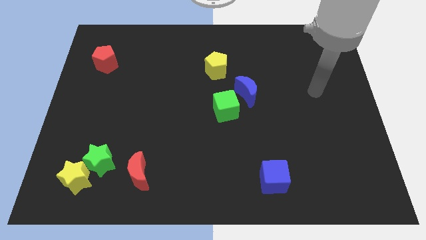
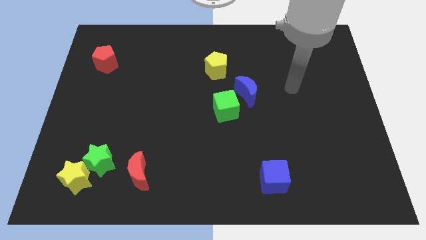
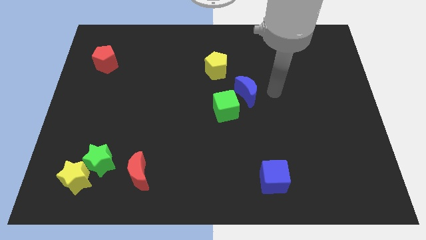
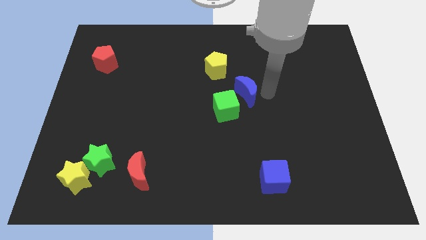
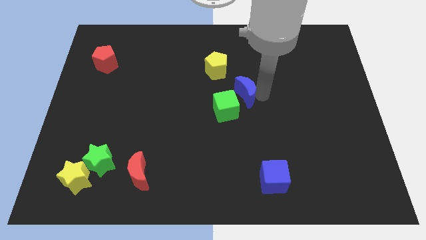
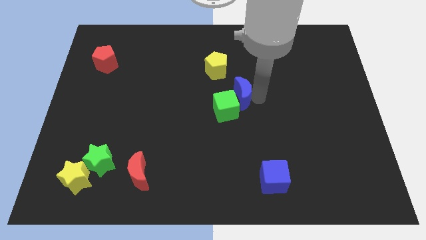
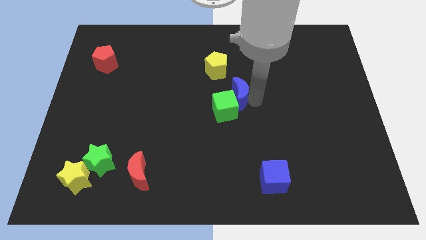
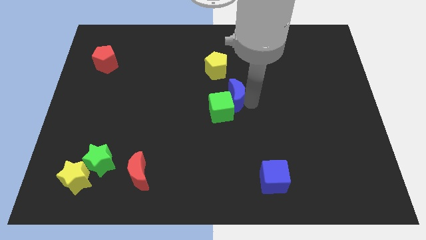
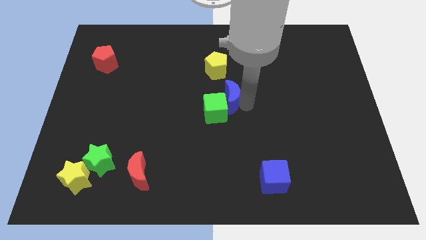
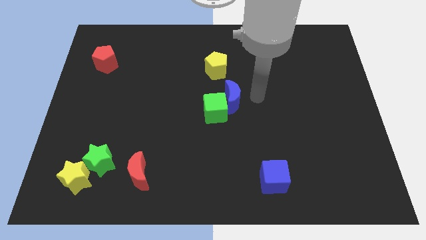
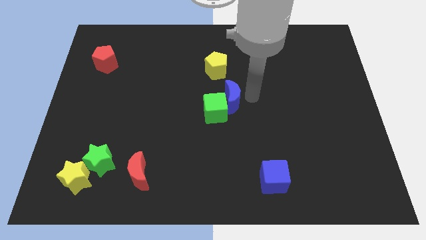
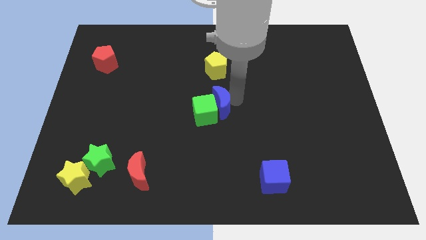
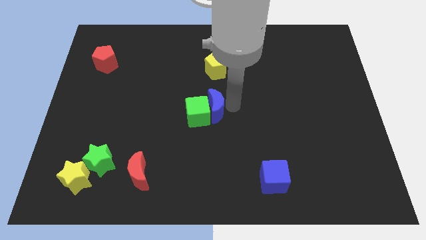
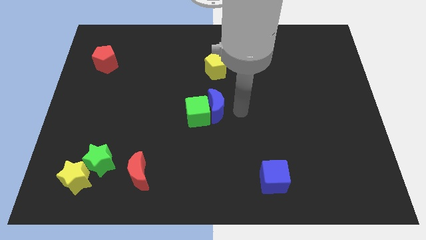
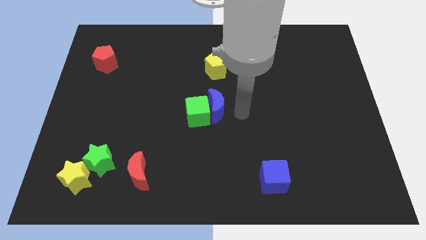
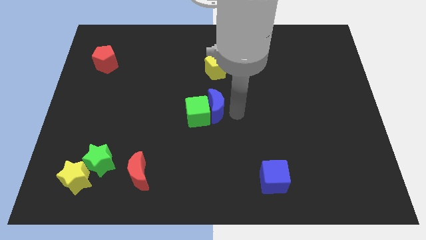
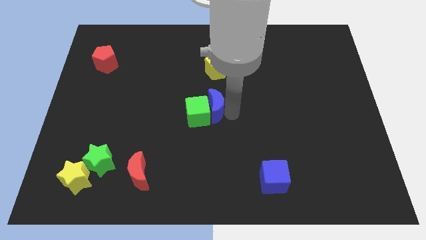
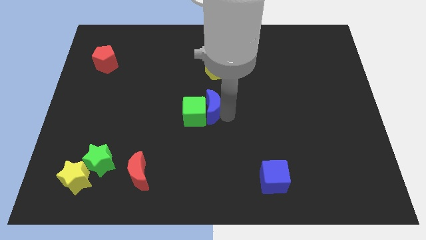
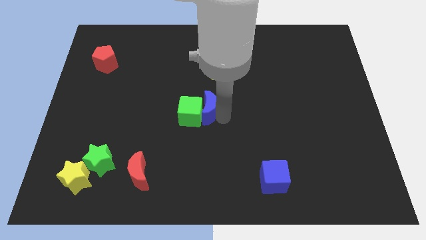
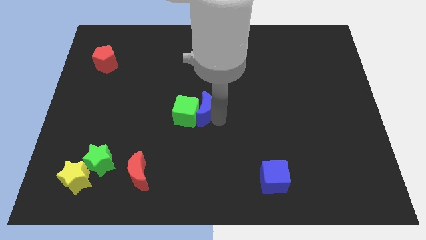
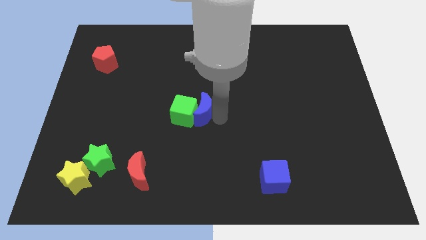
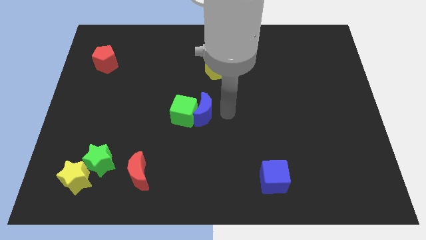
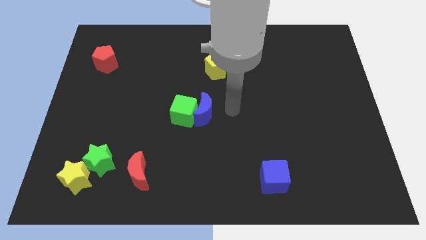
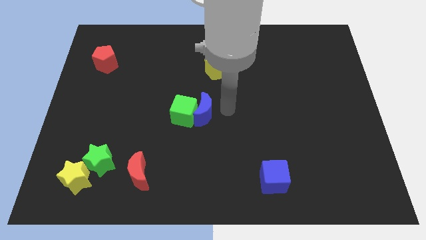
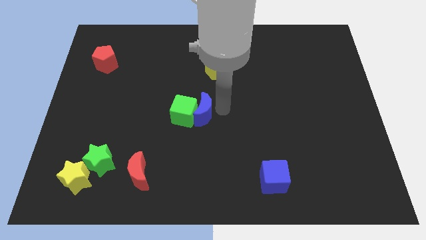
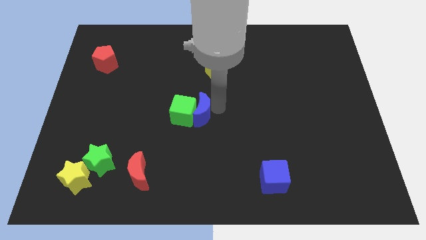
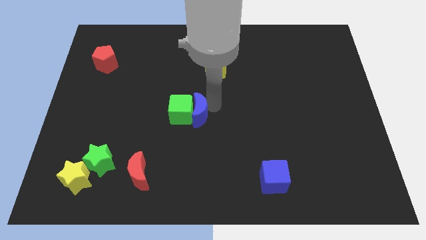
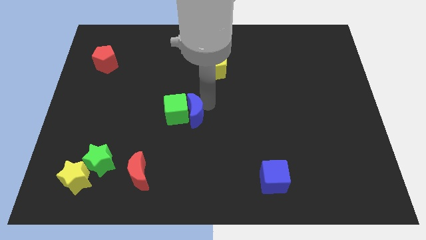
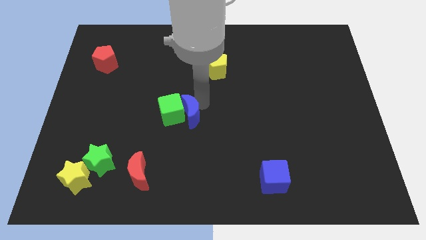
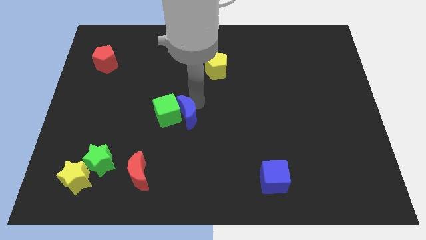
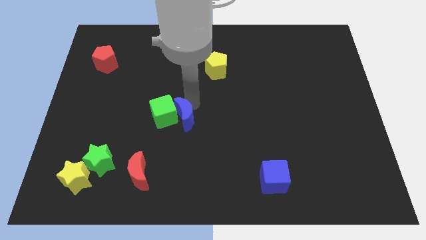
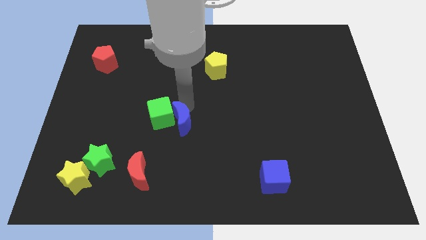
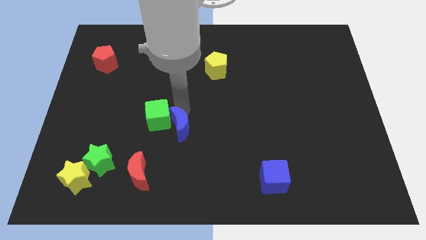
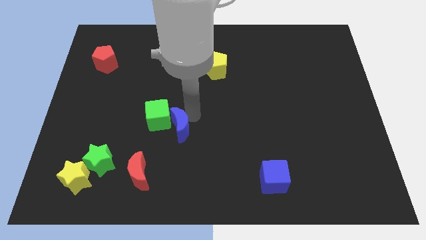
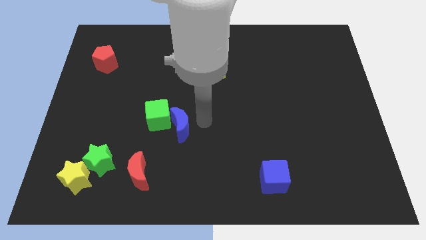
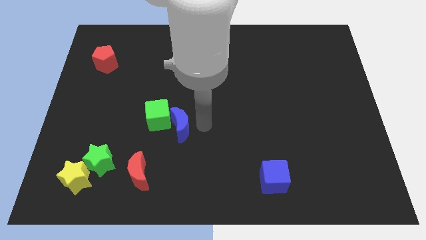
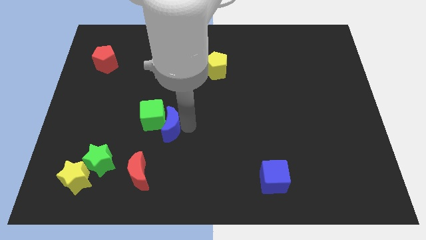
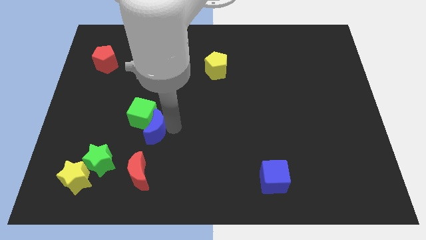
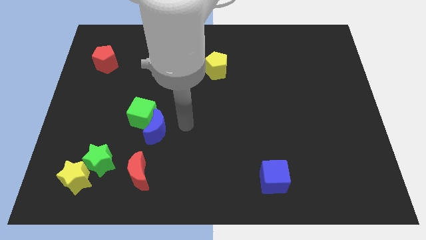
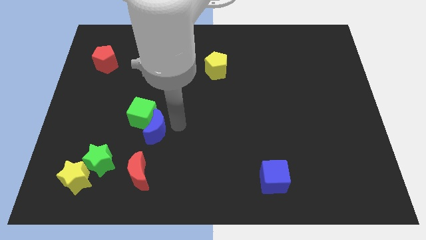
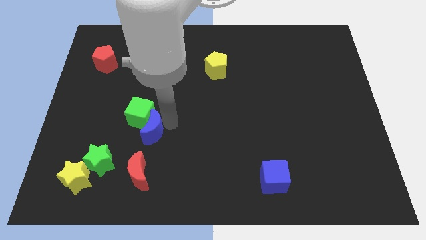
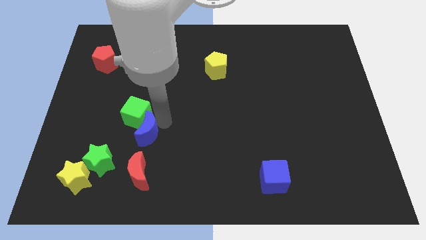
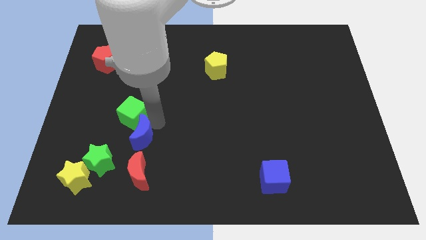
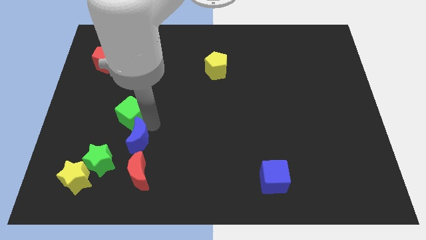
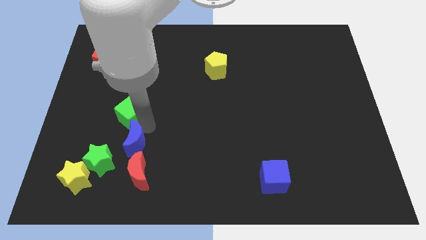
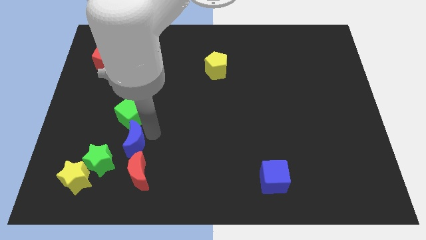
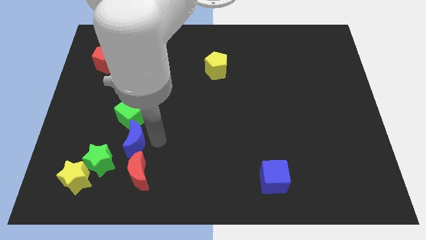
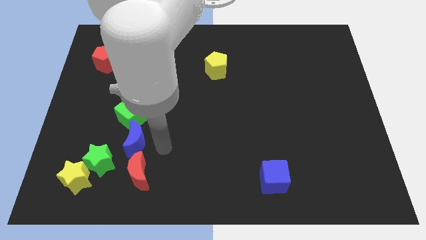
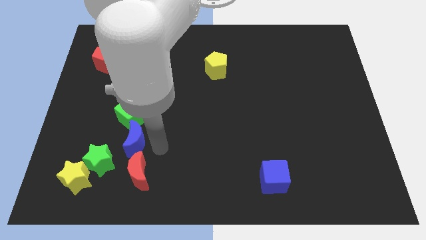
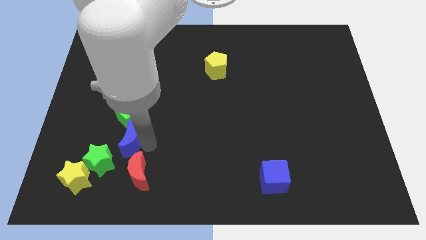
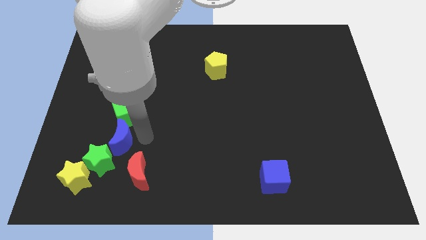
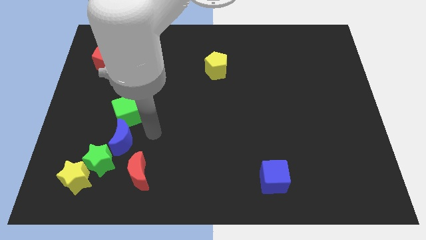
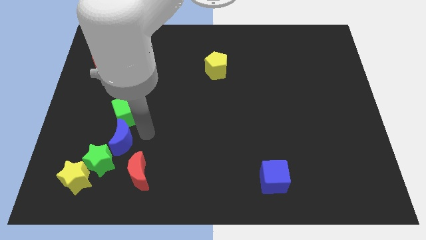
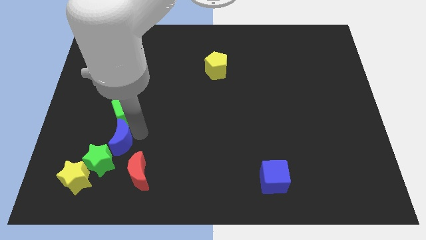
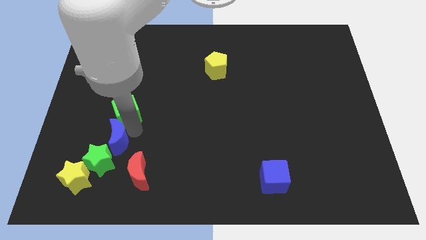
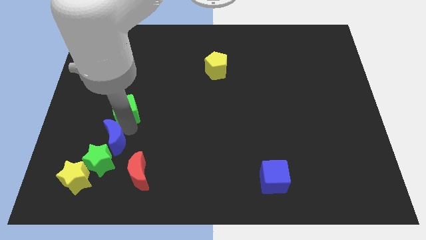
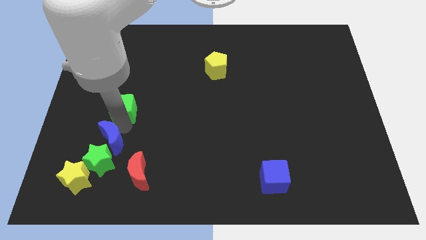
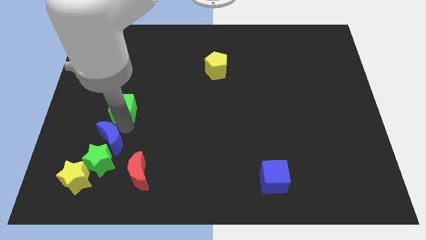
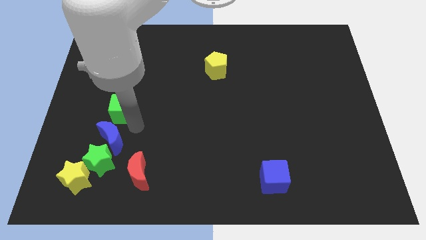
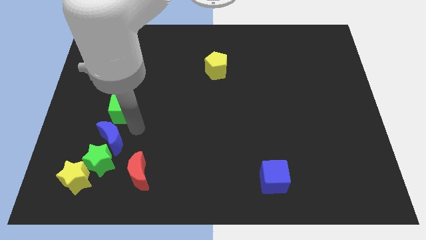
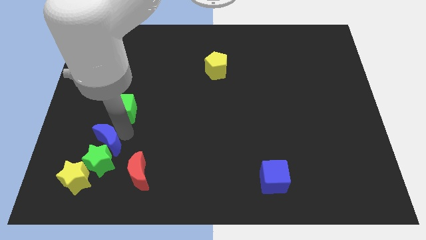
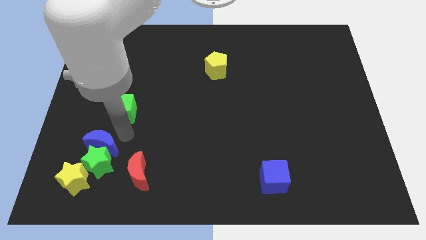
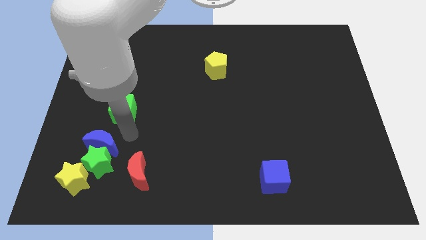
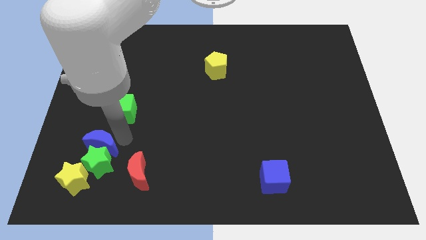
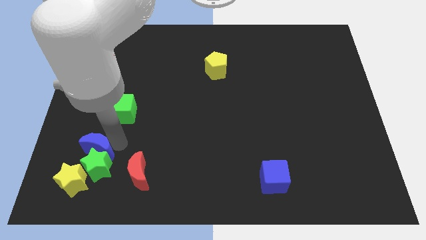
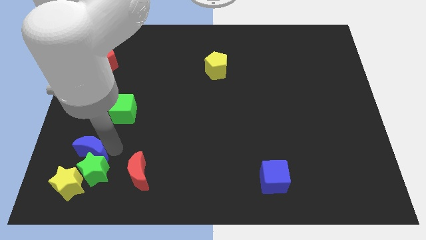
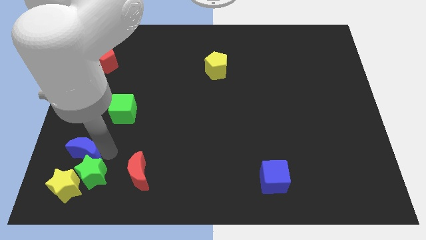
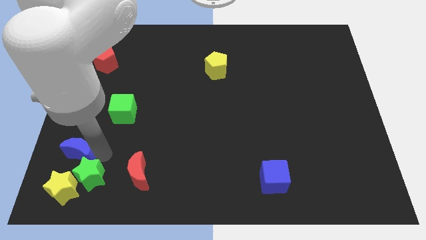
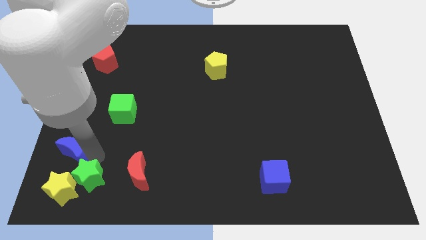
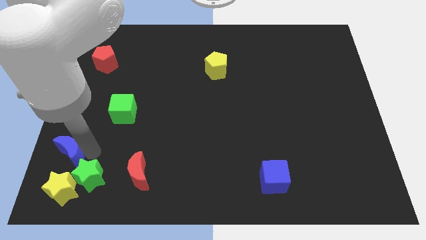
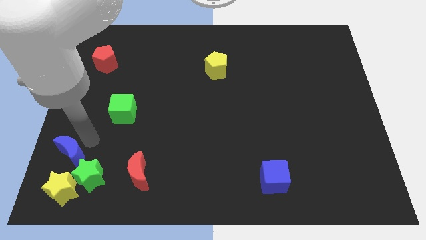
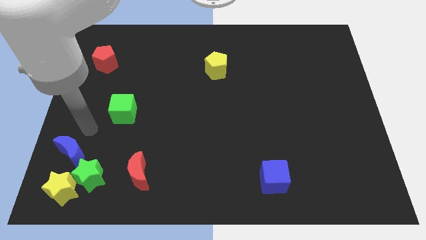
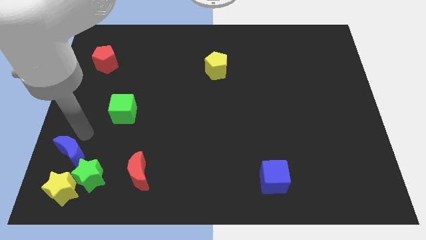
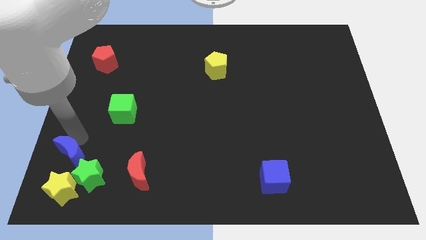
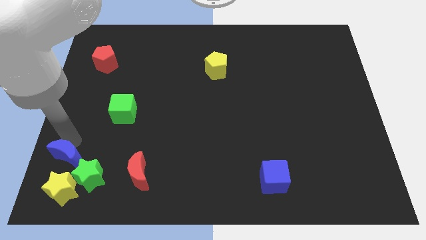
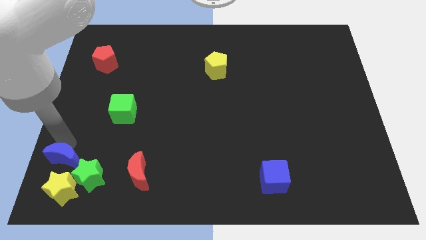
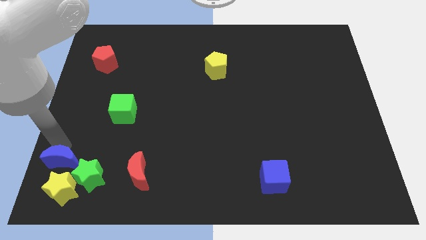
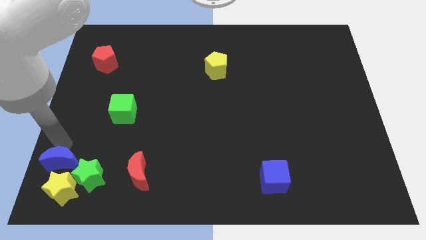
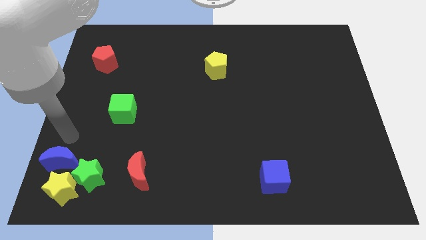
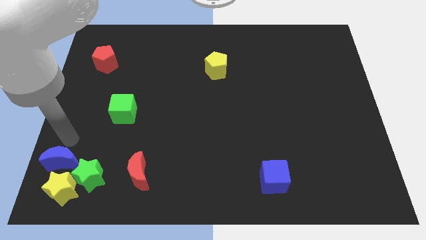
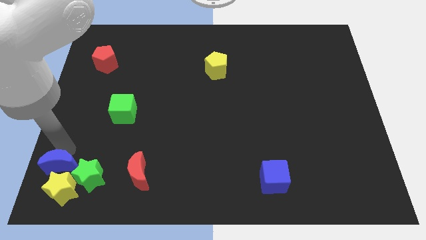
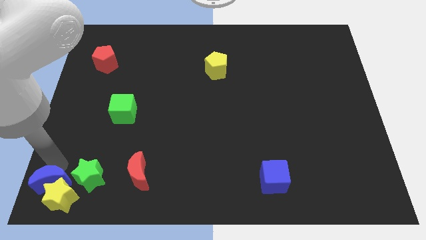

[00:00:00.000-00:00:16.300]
move the blue moon to the bottom left of the green star
